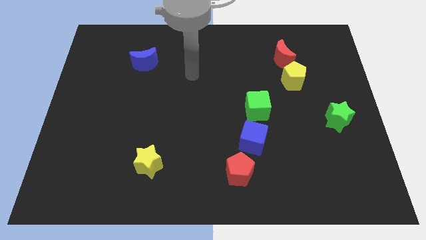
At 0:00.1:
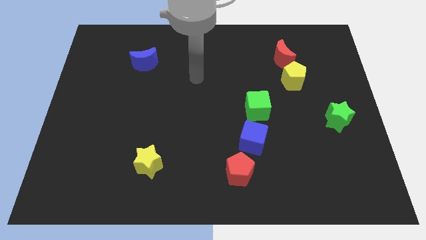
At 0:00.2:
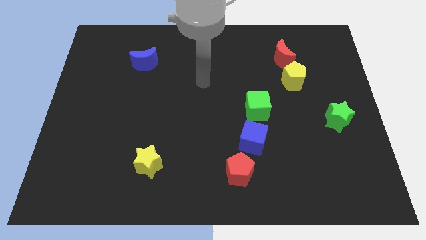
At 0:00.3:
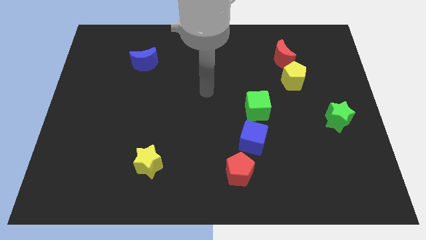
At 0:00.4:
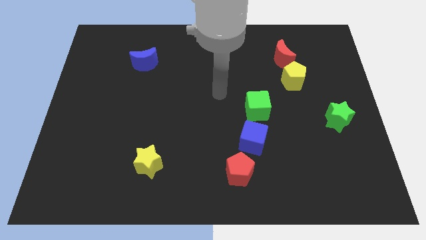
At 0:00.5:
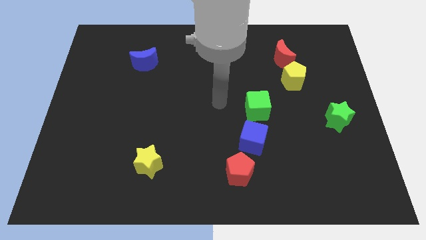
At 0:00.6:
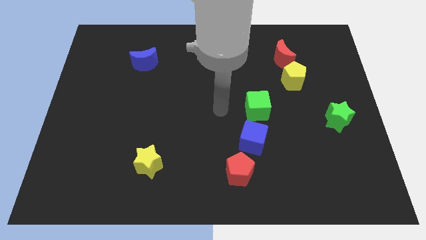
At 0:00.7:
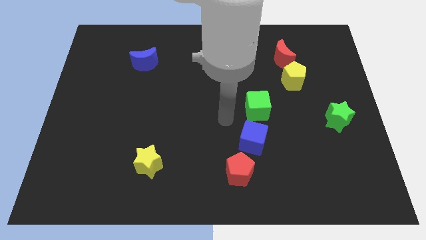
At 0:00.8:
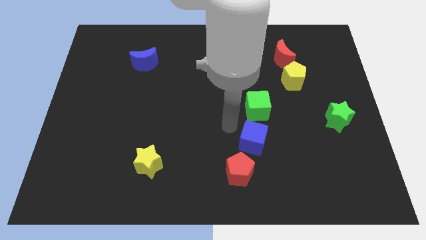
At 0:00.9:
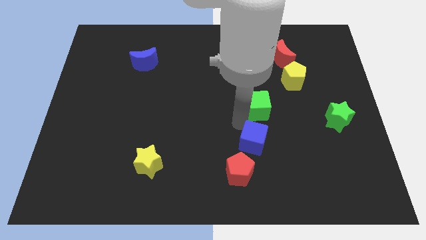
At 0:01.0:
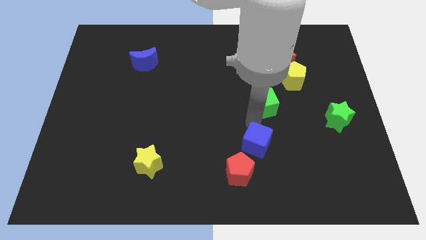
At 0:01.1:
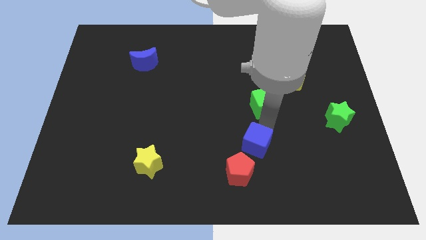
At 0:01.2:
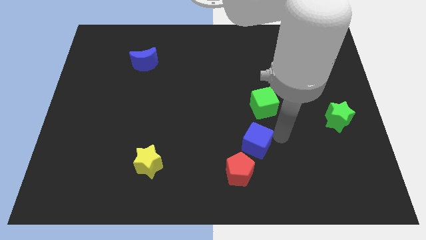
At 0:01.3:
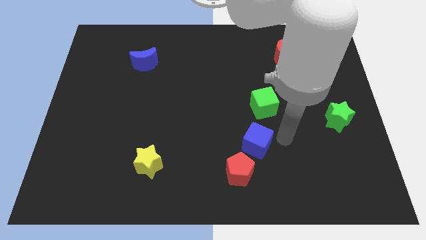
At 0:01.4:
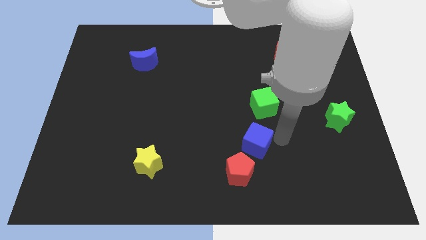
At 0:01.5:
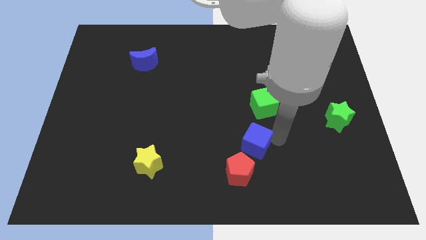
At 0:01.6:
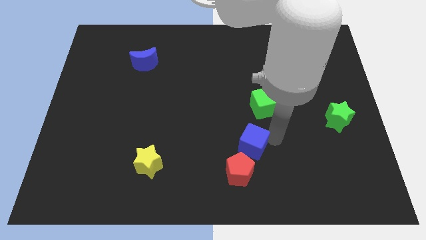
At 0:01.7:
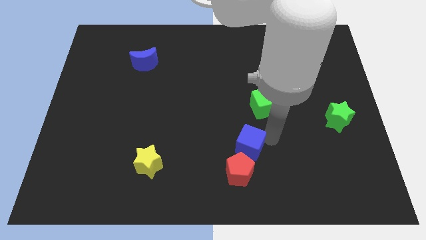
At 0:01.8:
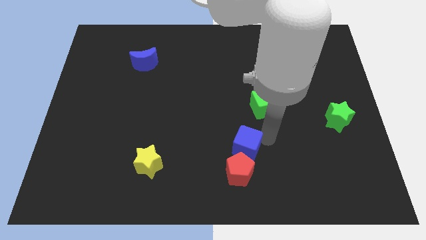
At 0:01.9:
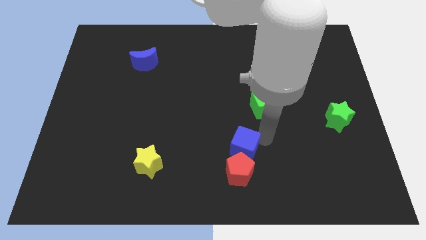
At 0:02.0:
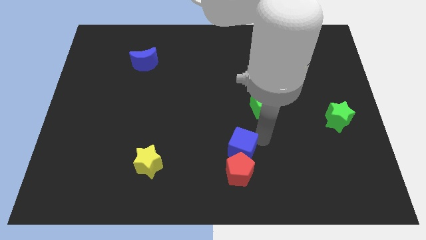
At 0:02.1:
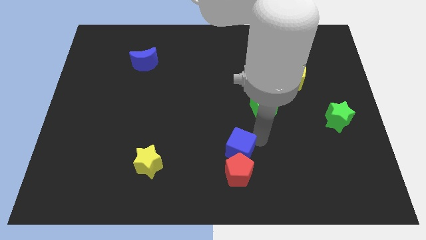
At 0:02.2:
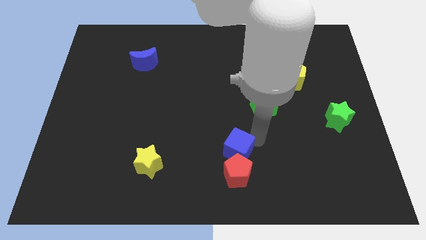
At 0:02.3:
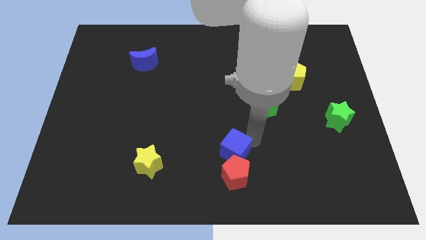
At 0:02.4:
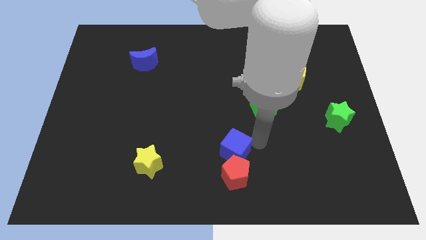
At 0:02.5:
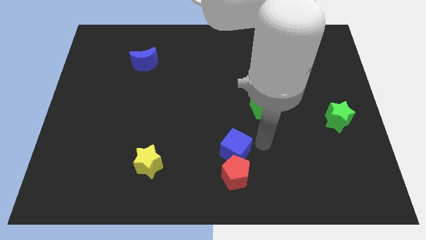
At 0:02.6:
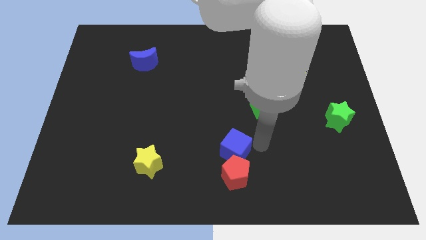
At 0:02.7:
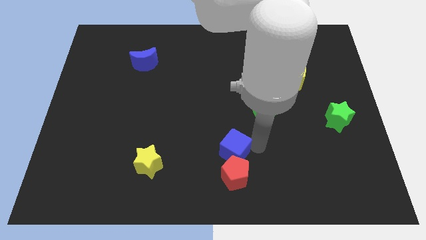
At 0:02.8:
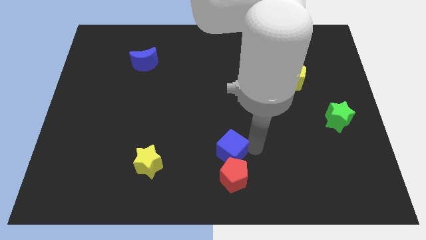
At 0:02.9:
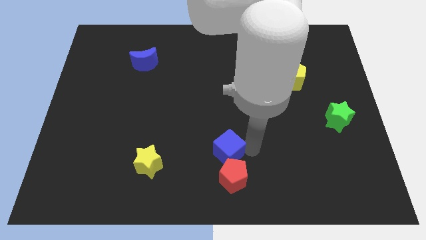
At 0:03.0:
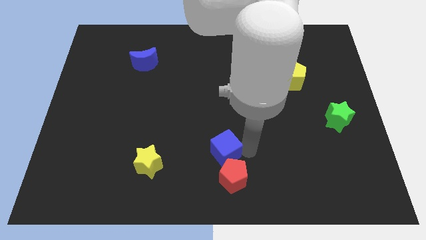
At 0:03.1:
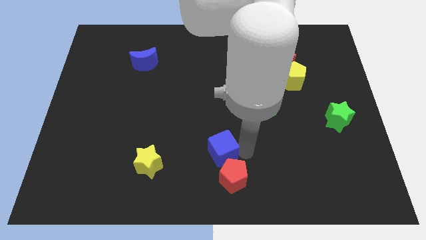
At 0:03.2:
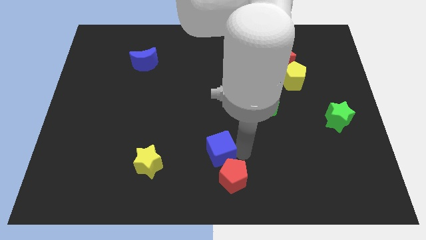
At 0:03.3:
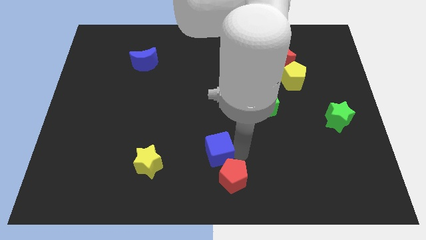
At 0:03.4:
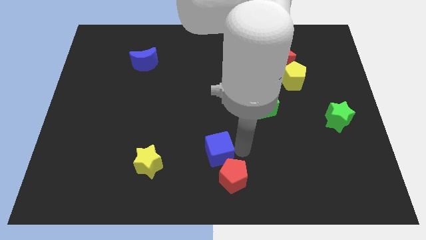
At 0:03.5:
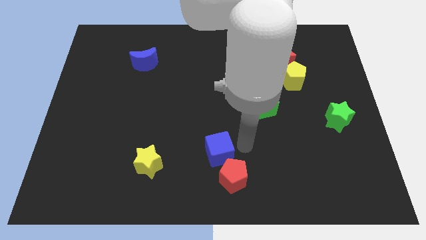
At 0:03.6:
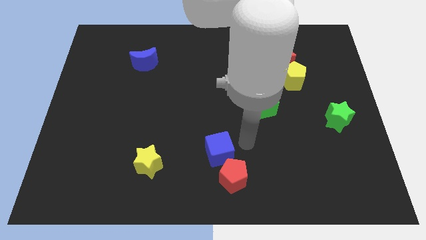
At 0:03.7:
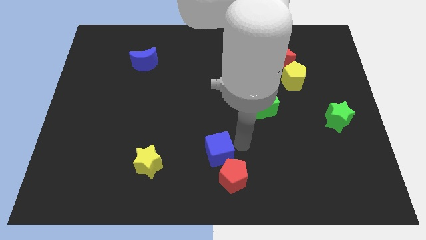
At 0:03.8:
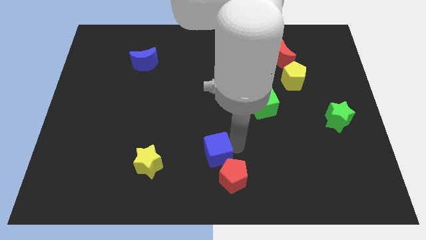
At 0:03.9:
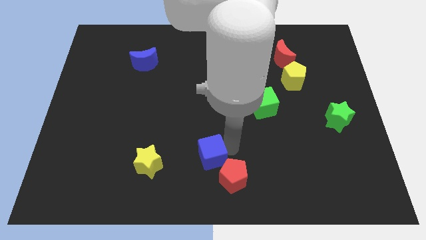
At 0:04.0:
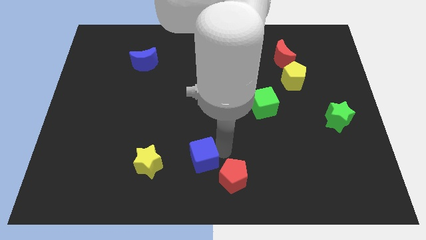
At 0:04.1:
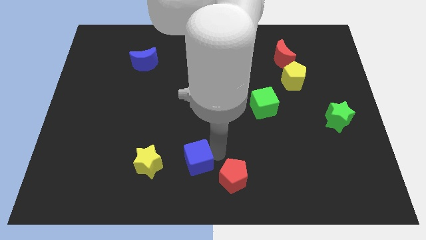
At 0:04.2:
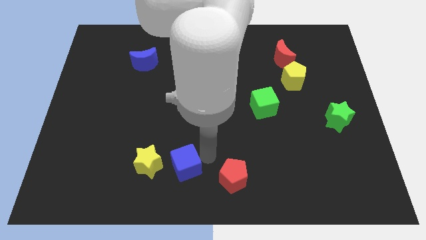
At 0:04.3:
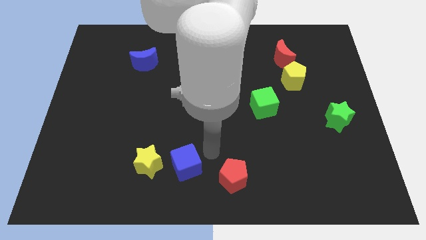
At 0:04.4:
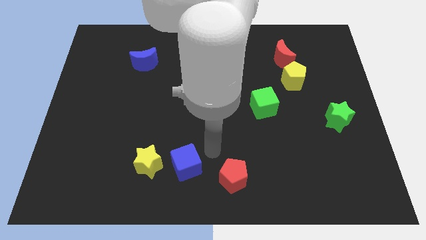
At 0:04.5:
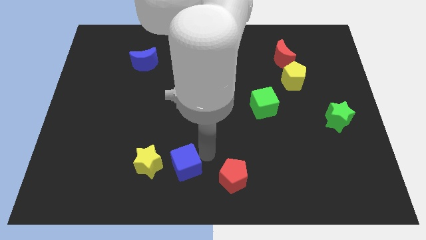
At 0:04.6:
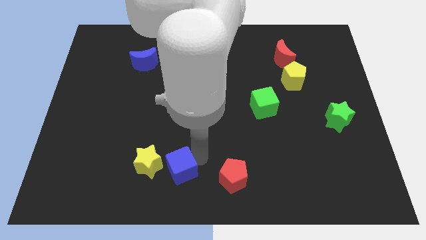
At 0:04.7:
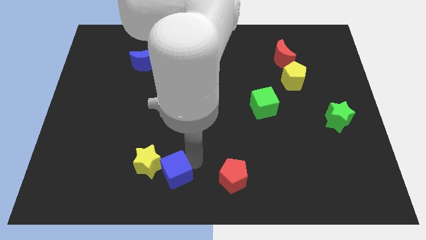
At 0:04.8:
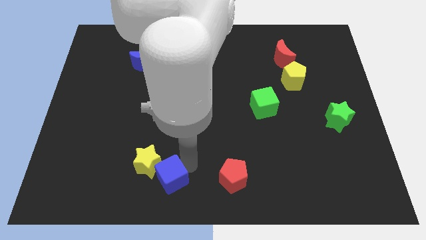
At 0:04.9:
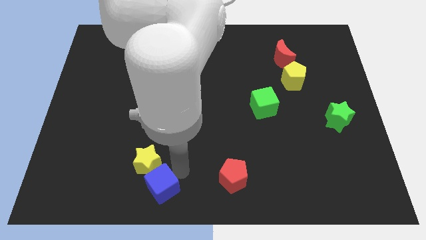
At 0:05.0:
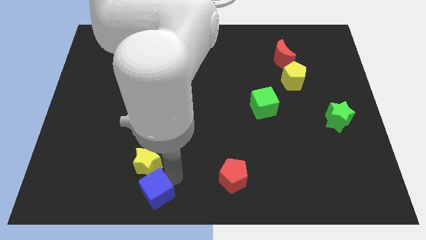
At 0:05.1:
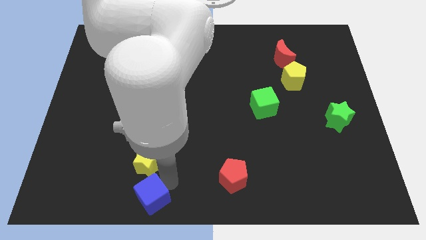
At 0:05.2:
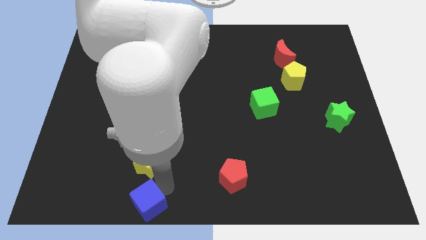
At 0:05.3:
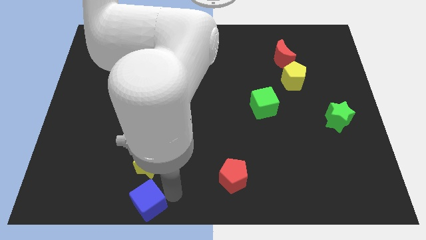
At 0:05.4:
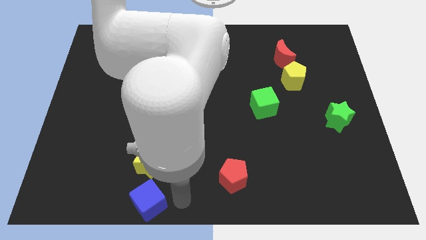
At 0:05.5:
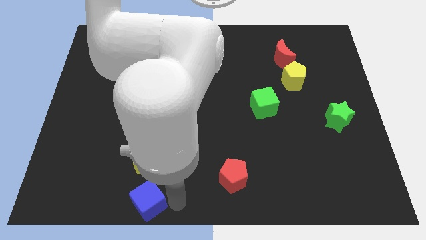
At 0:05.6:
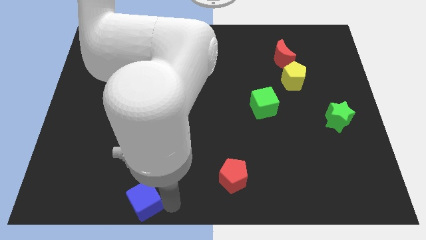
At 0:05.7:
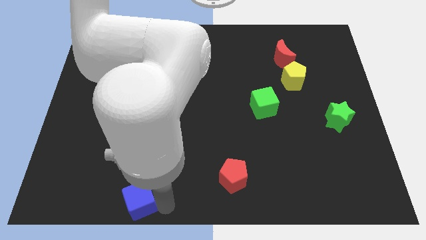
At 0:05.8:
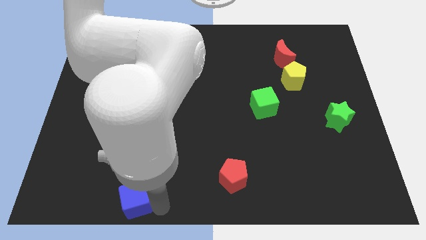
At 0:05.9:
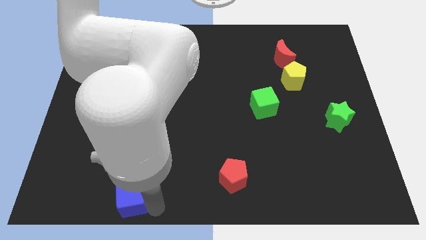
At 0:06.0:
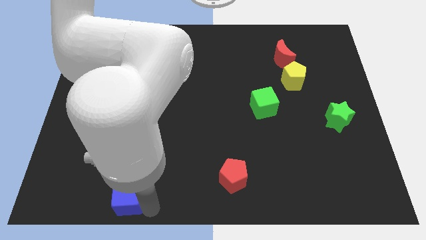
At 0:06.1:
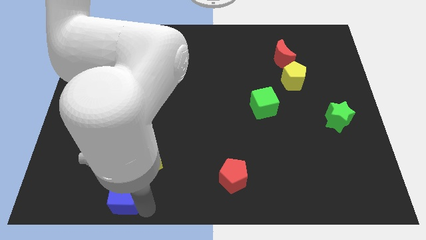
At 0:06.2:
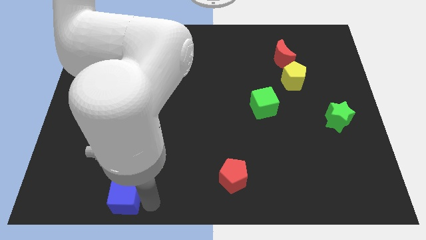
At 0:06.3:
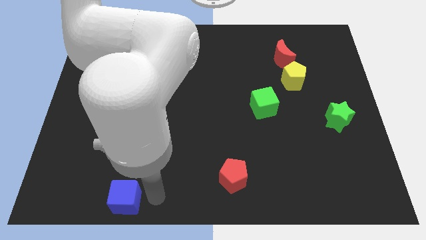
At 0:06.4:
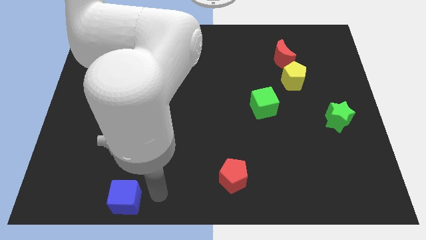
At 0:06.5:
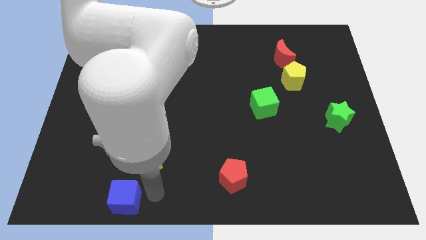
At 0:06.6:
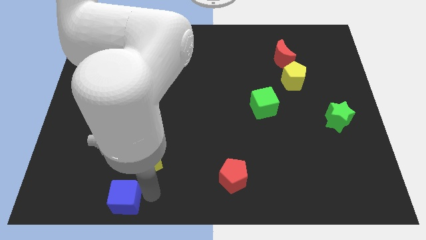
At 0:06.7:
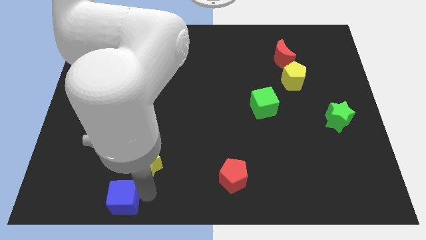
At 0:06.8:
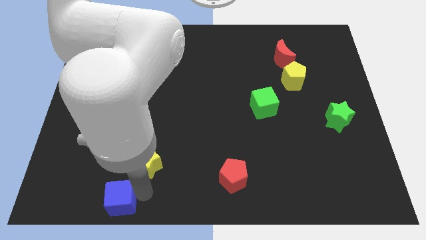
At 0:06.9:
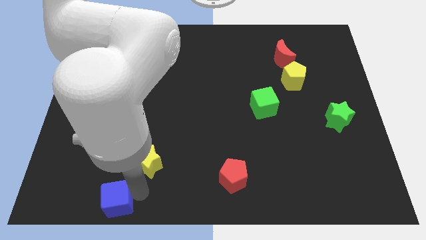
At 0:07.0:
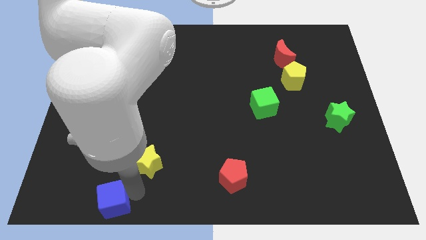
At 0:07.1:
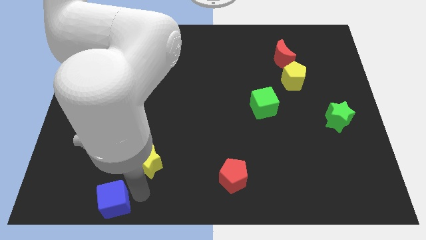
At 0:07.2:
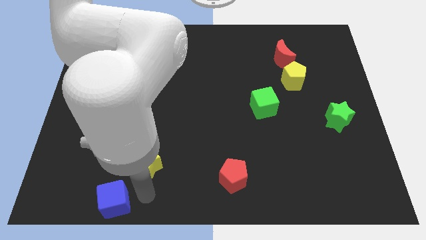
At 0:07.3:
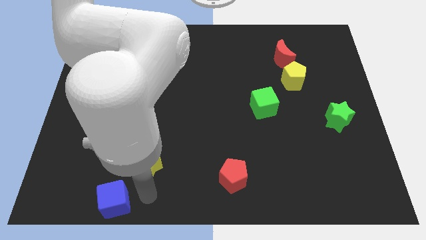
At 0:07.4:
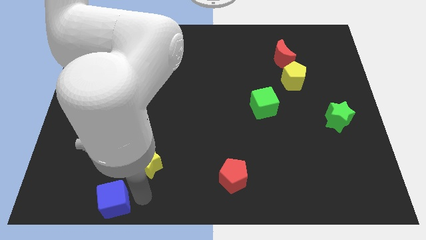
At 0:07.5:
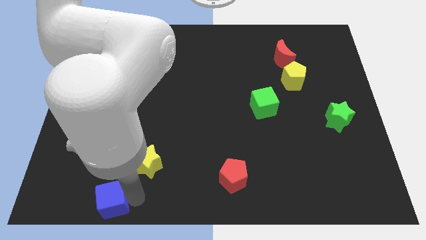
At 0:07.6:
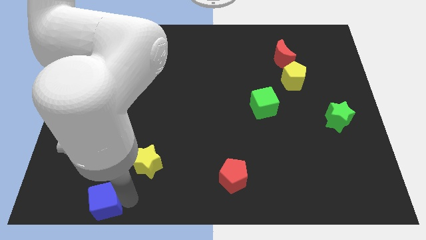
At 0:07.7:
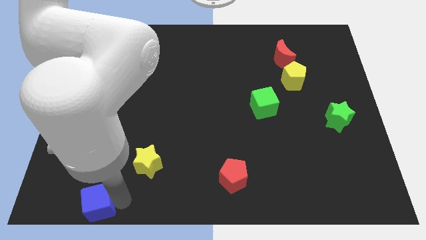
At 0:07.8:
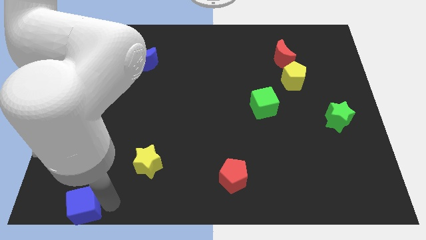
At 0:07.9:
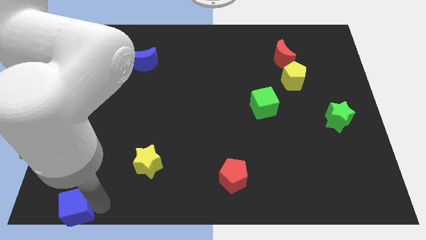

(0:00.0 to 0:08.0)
put the blue cube to the lower left corner

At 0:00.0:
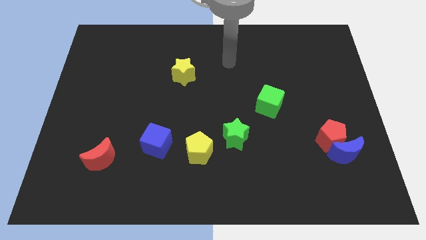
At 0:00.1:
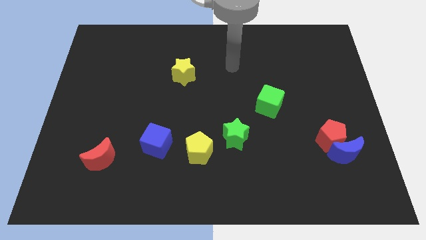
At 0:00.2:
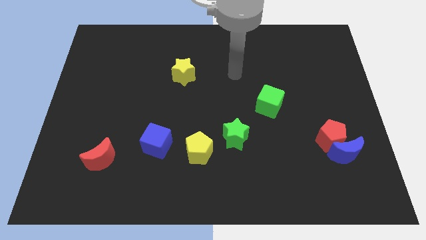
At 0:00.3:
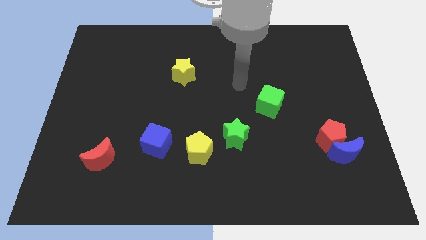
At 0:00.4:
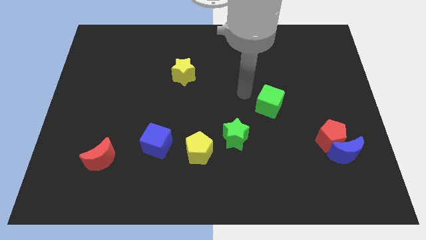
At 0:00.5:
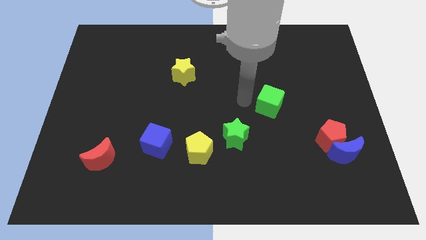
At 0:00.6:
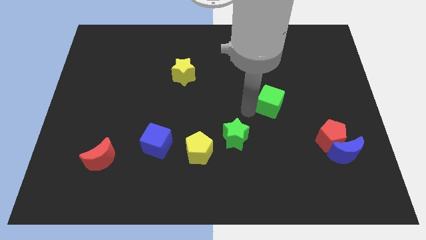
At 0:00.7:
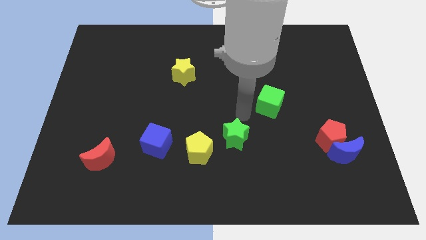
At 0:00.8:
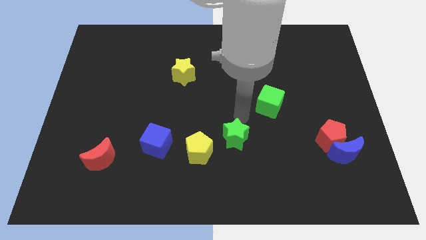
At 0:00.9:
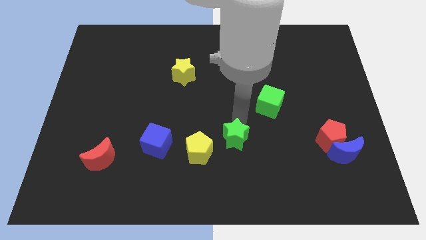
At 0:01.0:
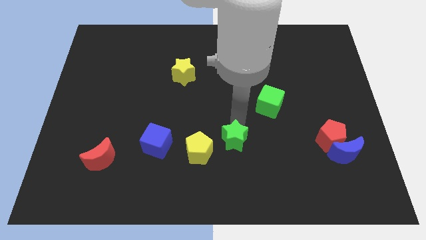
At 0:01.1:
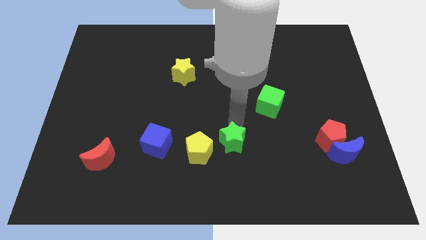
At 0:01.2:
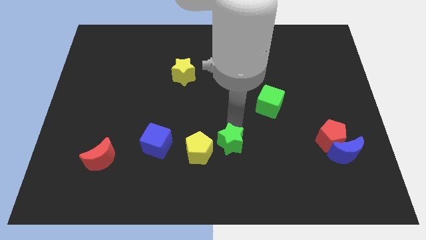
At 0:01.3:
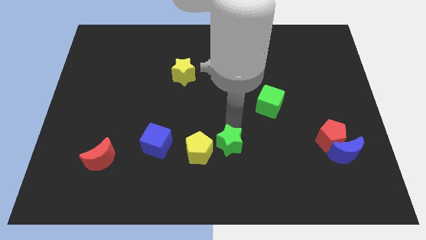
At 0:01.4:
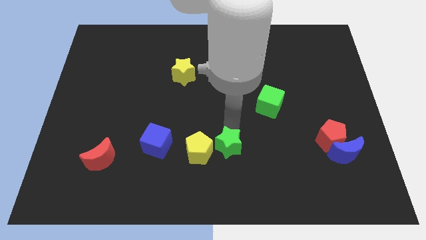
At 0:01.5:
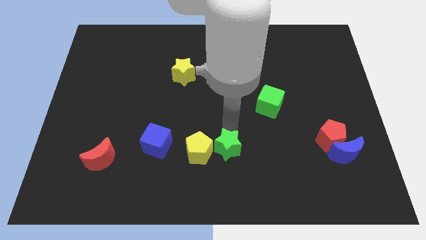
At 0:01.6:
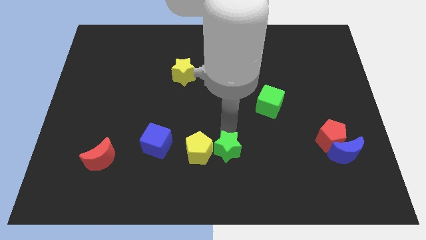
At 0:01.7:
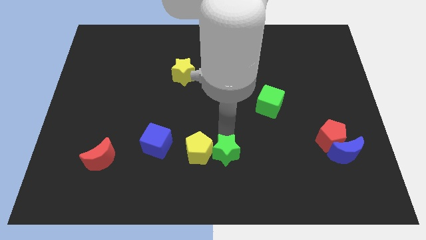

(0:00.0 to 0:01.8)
slide the green star to the bottom side
